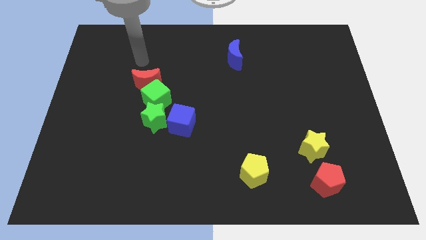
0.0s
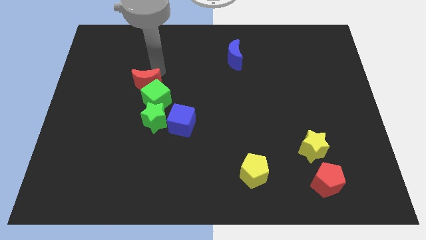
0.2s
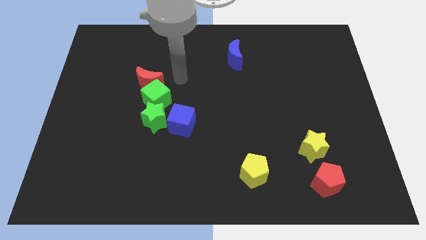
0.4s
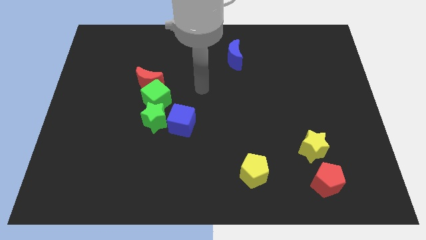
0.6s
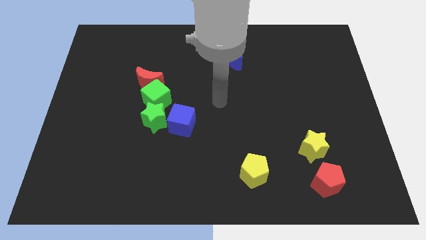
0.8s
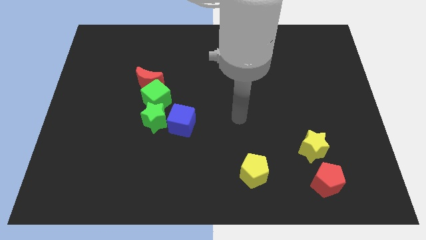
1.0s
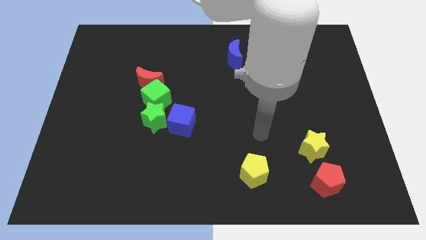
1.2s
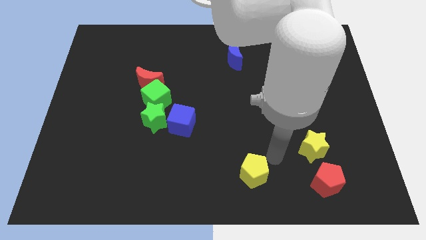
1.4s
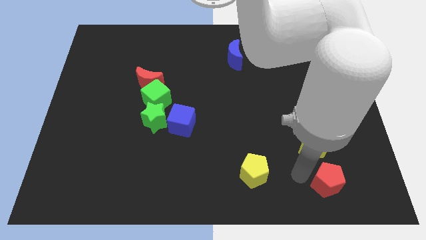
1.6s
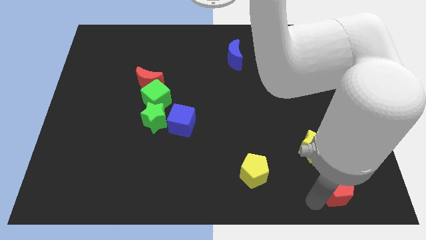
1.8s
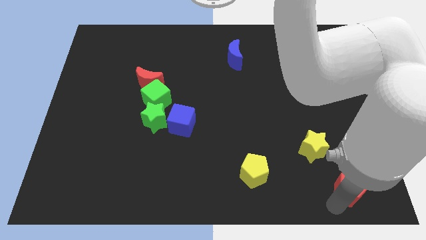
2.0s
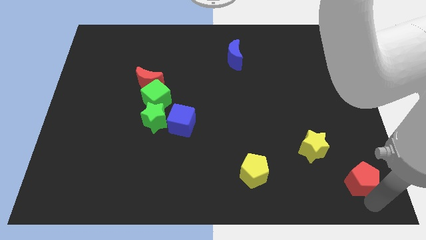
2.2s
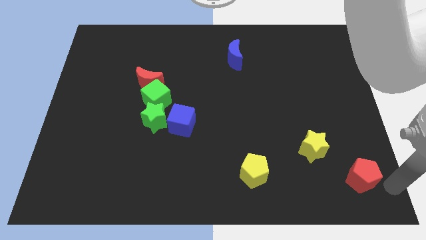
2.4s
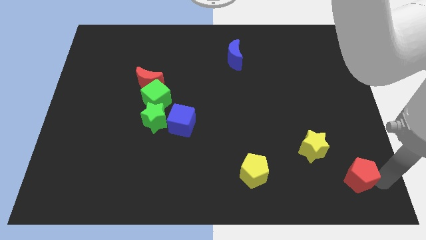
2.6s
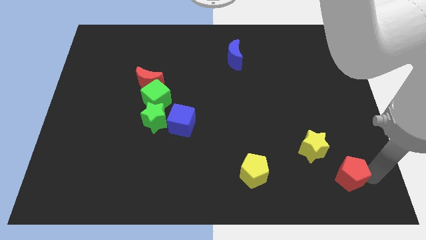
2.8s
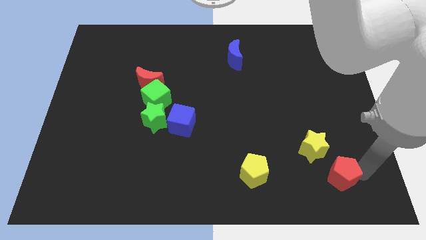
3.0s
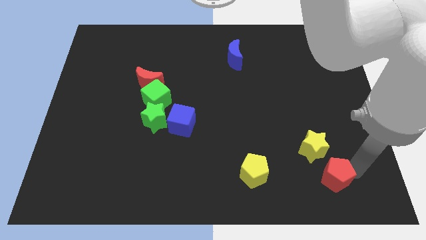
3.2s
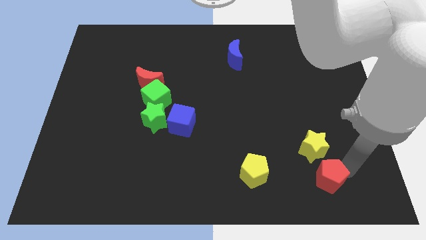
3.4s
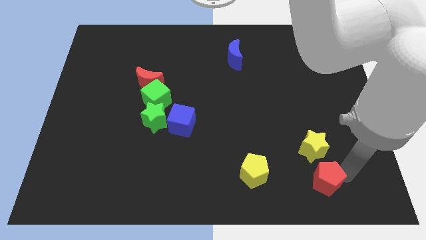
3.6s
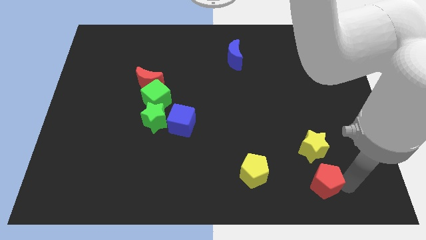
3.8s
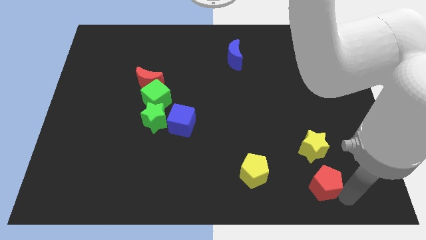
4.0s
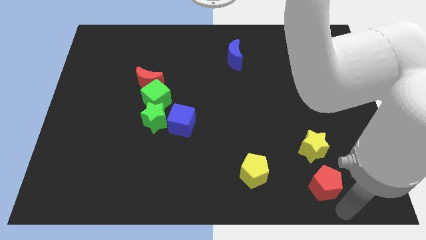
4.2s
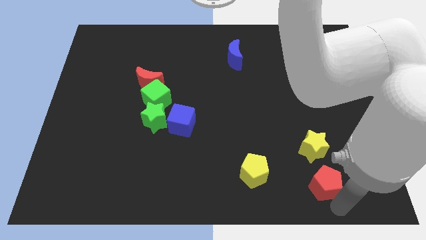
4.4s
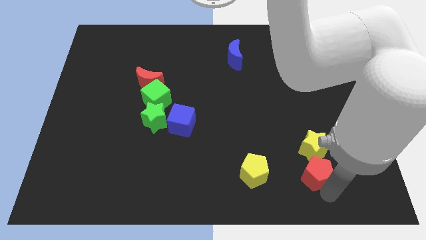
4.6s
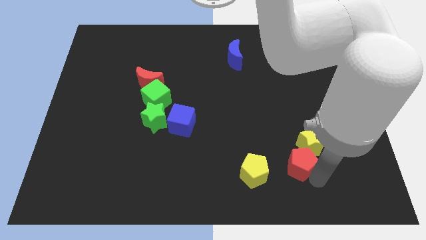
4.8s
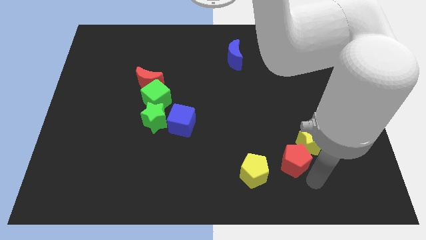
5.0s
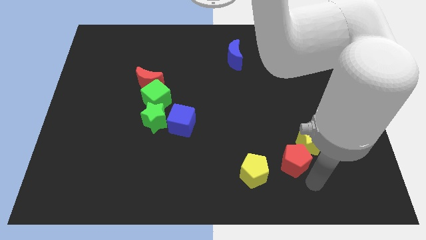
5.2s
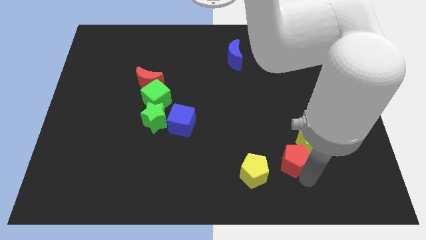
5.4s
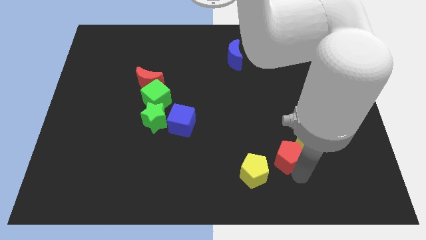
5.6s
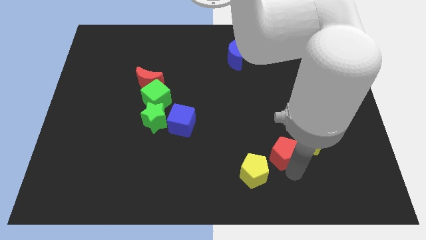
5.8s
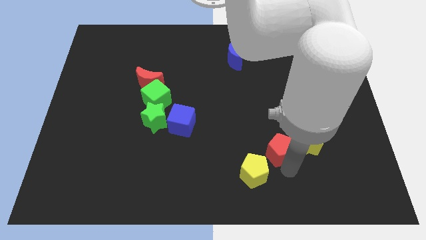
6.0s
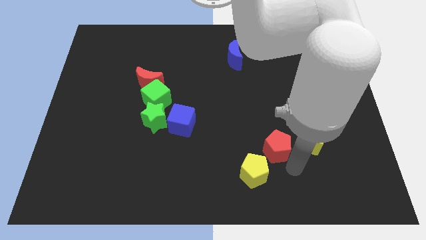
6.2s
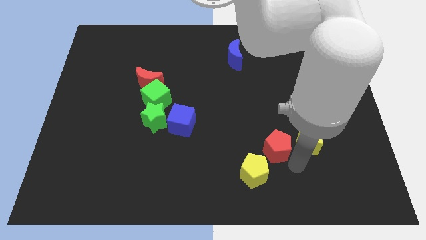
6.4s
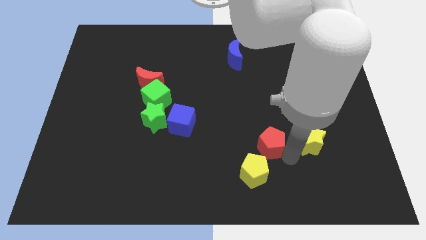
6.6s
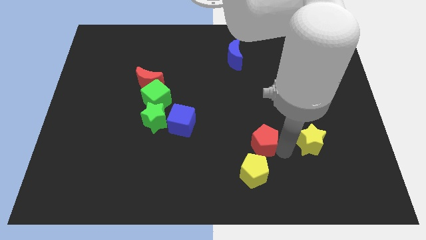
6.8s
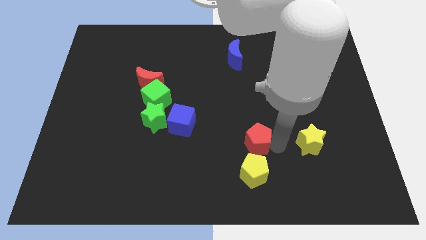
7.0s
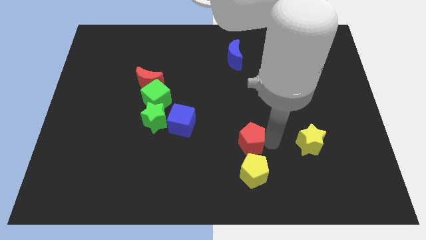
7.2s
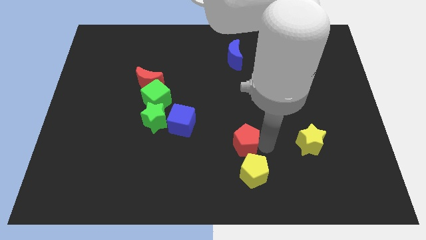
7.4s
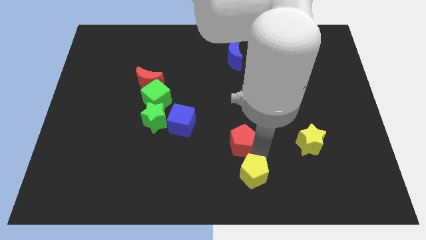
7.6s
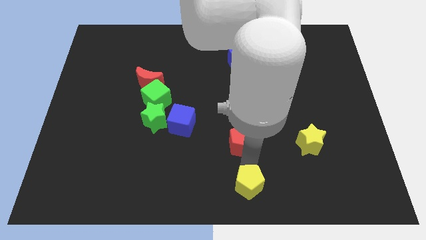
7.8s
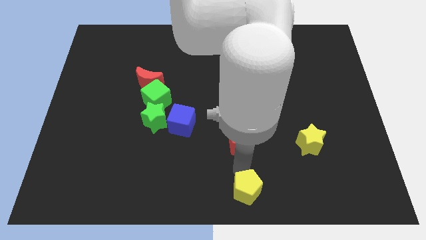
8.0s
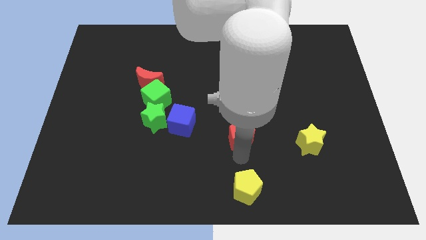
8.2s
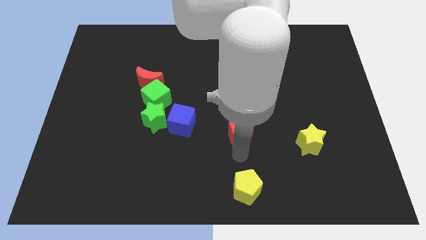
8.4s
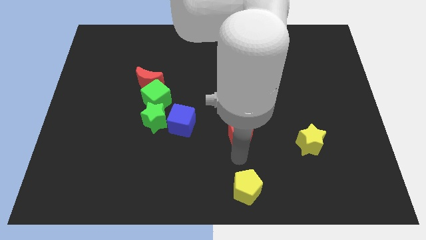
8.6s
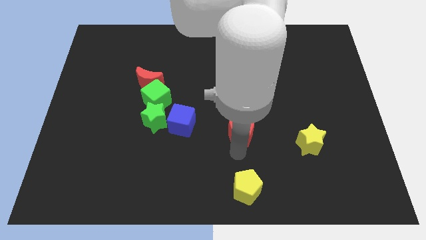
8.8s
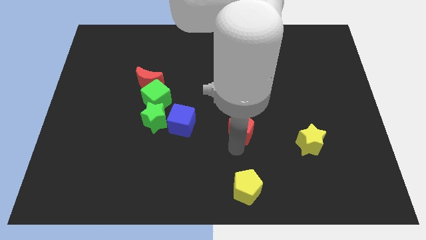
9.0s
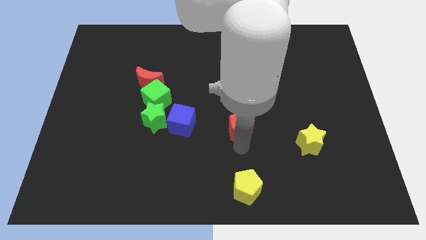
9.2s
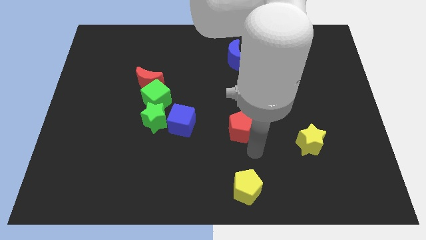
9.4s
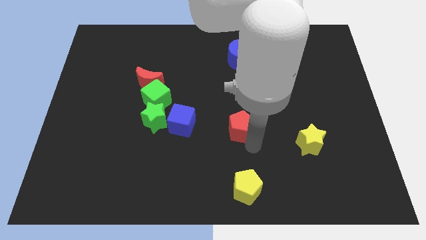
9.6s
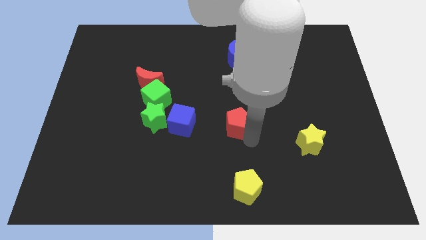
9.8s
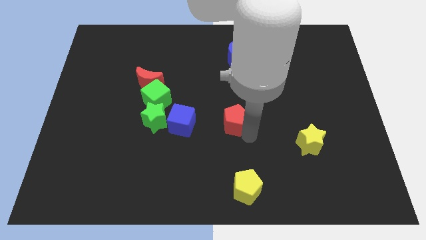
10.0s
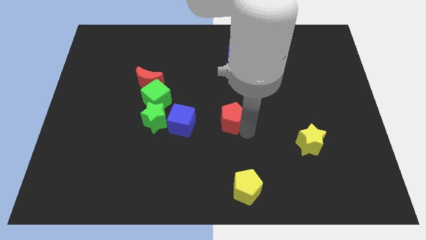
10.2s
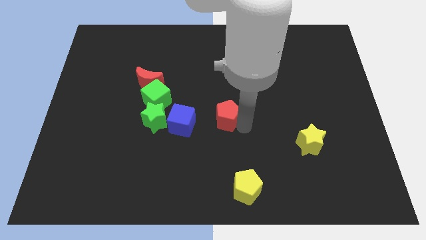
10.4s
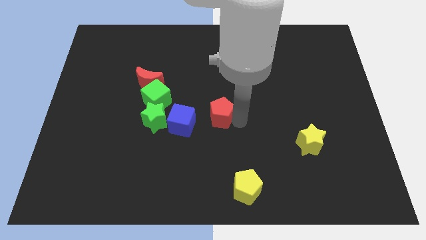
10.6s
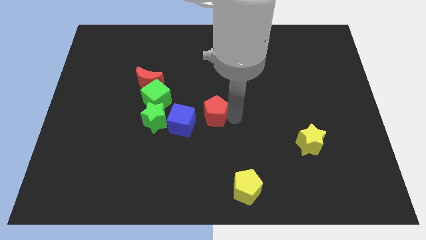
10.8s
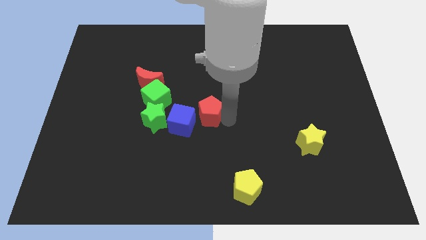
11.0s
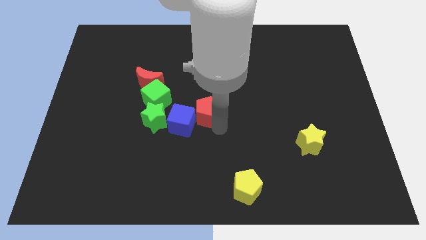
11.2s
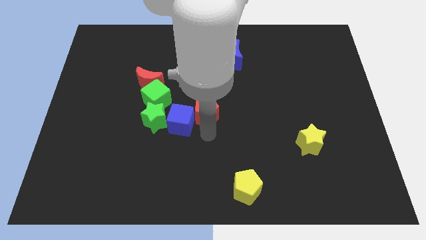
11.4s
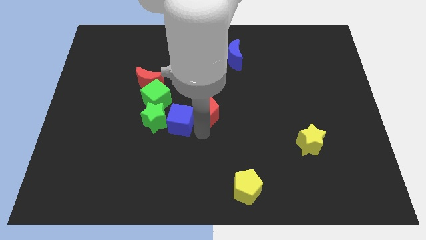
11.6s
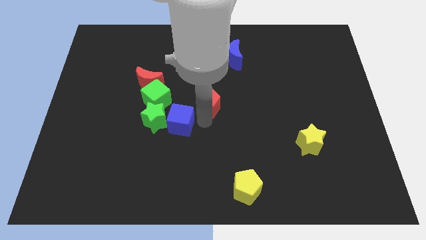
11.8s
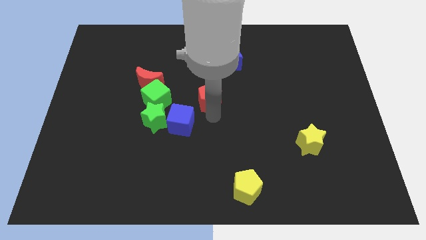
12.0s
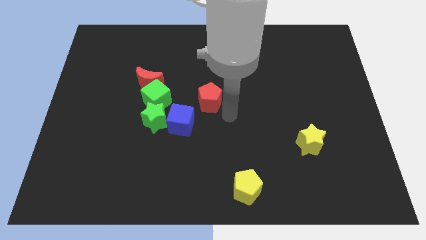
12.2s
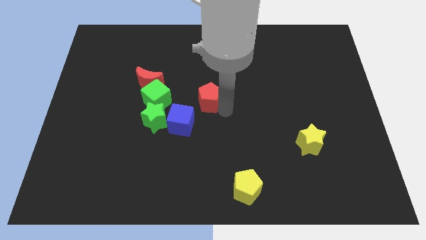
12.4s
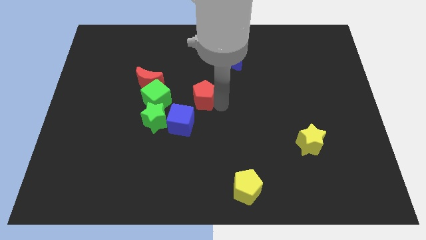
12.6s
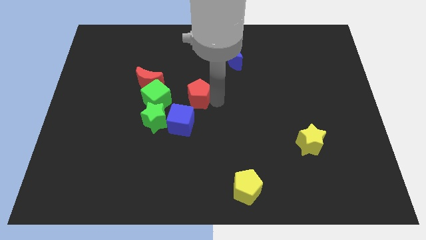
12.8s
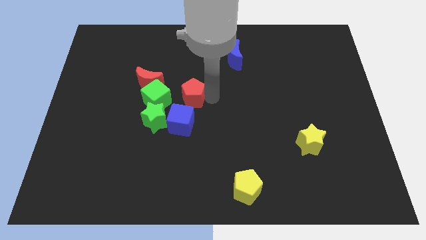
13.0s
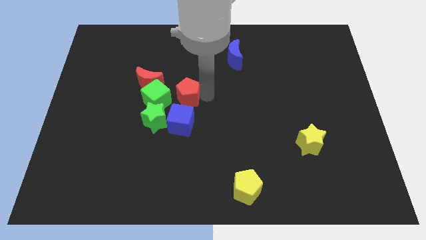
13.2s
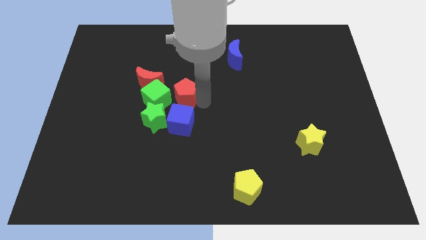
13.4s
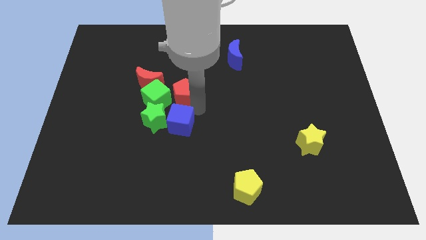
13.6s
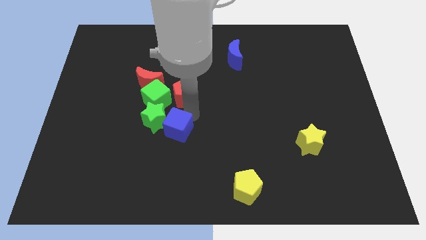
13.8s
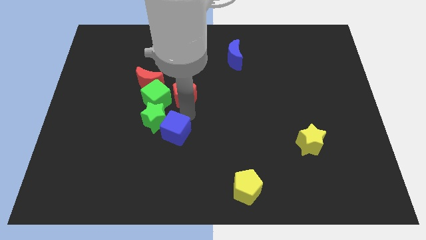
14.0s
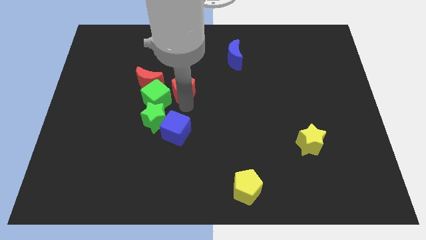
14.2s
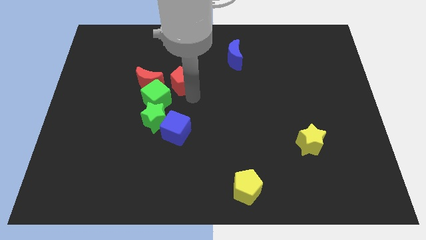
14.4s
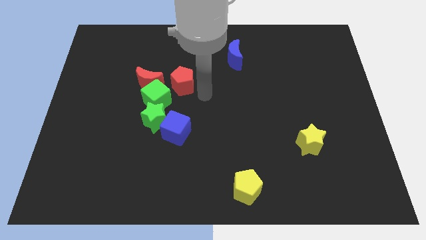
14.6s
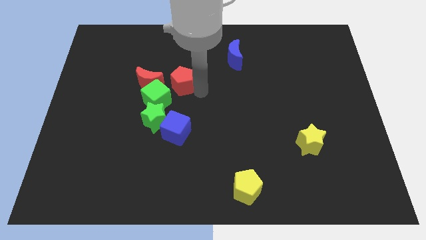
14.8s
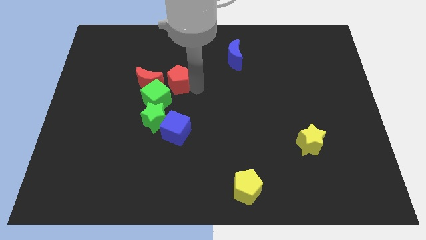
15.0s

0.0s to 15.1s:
move the red pentagon to the top of the green star
